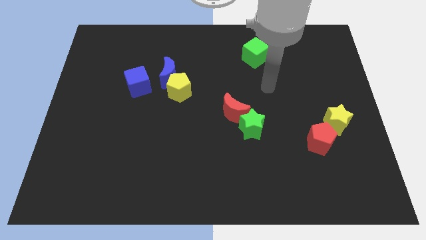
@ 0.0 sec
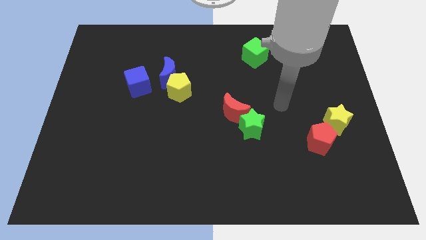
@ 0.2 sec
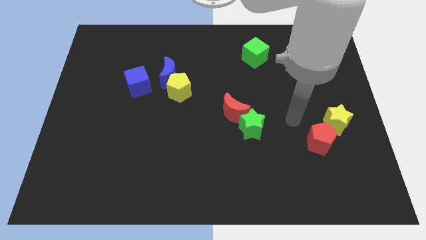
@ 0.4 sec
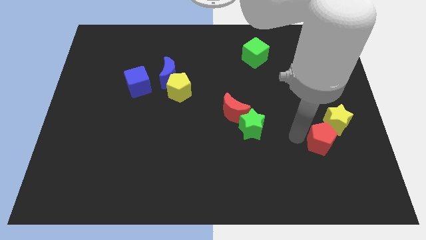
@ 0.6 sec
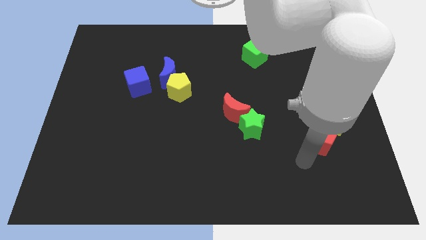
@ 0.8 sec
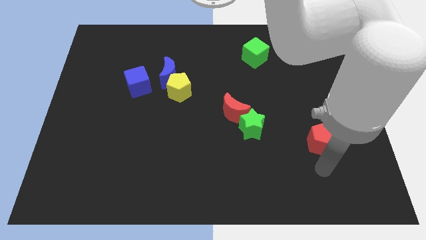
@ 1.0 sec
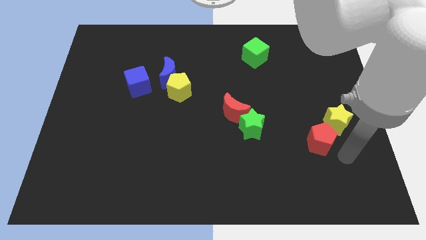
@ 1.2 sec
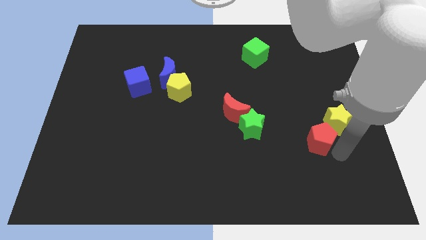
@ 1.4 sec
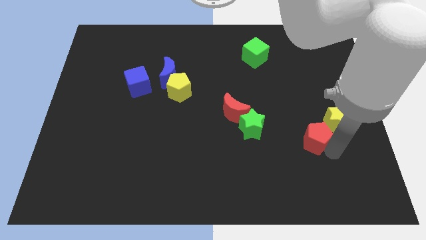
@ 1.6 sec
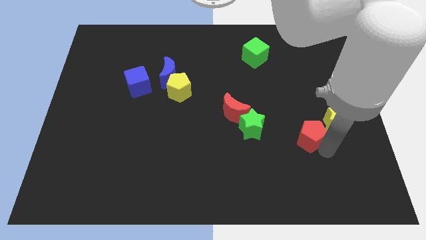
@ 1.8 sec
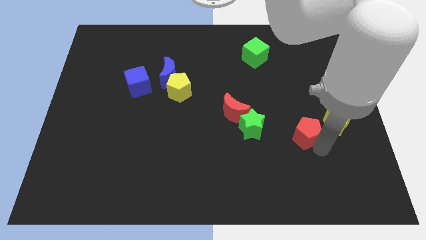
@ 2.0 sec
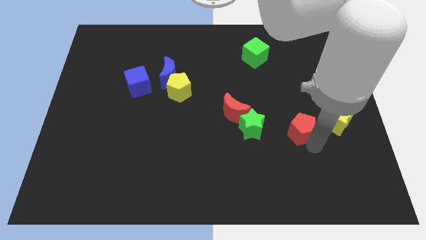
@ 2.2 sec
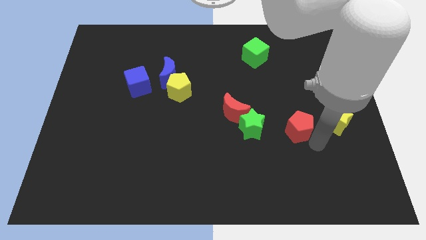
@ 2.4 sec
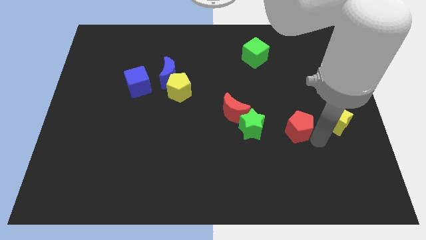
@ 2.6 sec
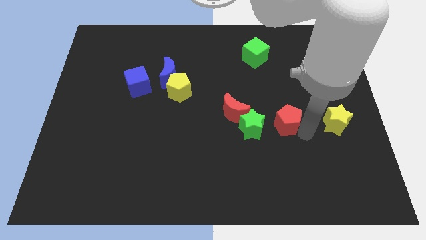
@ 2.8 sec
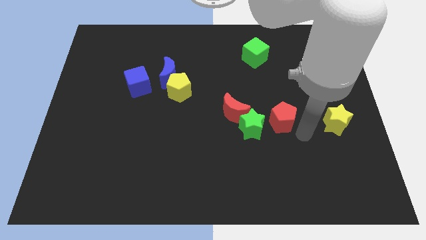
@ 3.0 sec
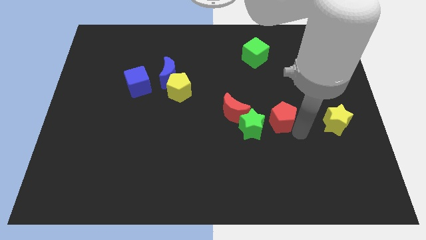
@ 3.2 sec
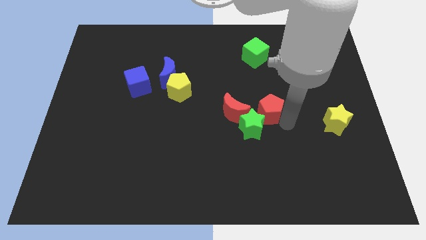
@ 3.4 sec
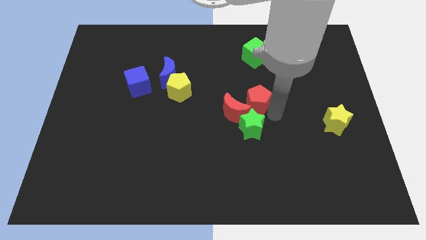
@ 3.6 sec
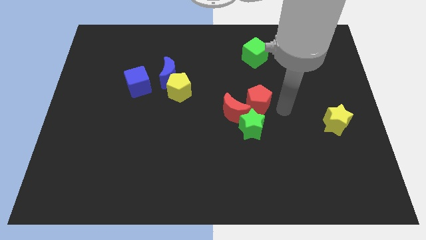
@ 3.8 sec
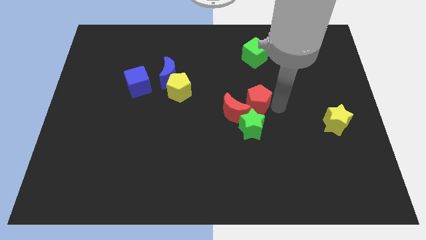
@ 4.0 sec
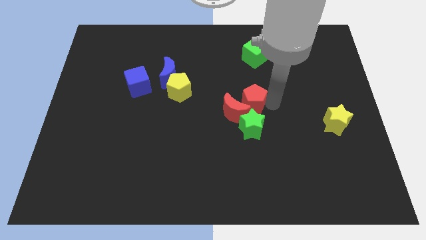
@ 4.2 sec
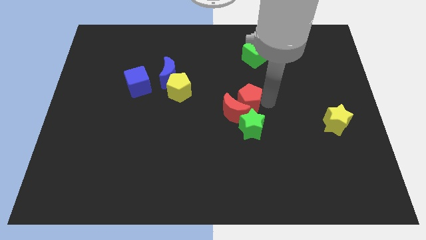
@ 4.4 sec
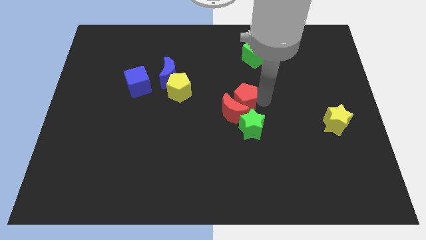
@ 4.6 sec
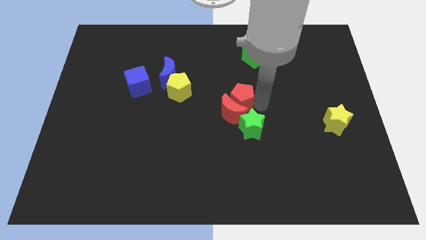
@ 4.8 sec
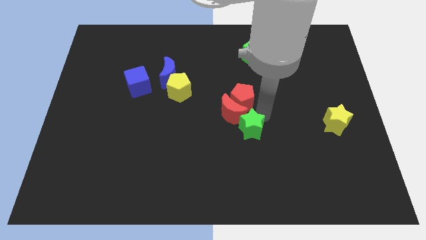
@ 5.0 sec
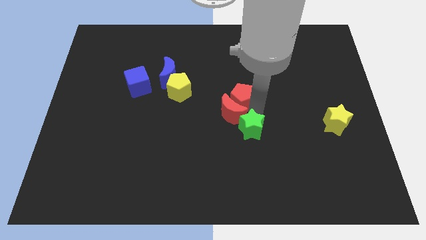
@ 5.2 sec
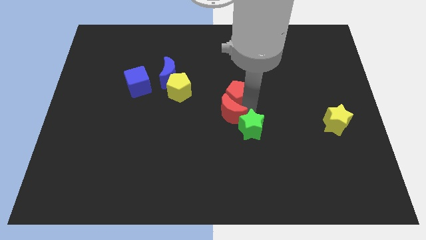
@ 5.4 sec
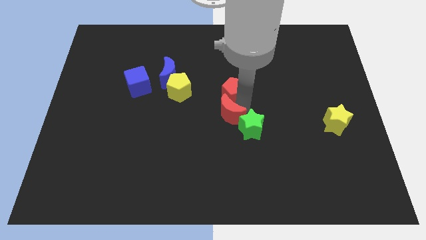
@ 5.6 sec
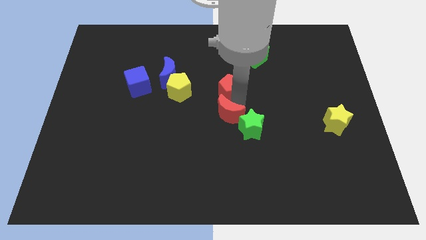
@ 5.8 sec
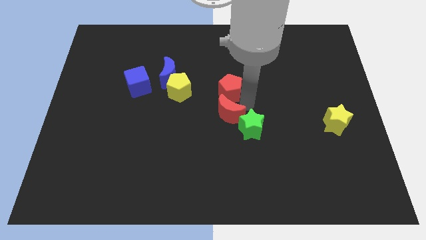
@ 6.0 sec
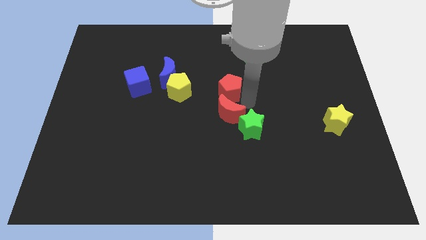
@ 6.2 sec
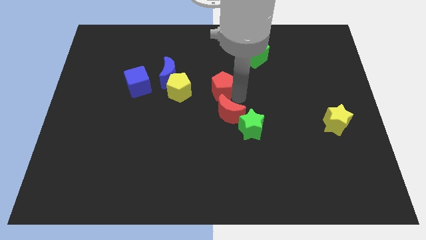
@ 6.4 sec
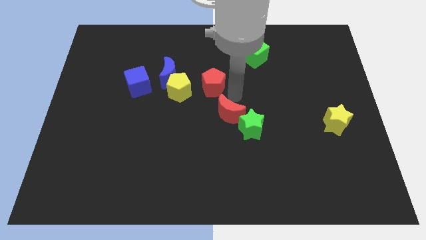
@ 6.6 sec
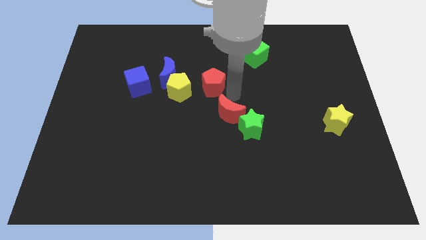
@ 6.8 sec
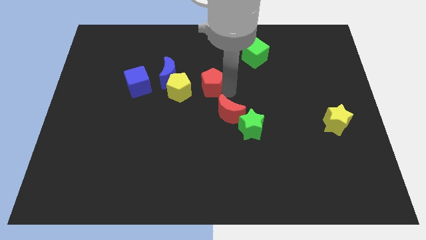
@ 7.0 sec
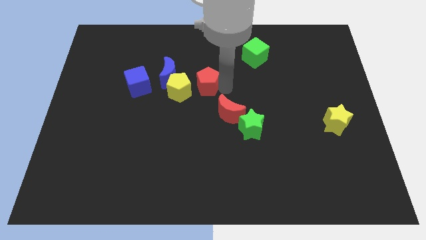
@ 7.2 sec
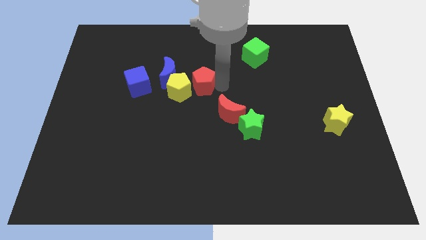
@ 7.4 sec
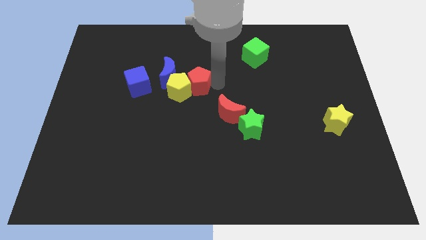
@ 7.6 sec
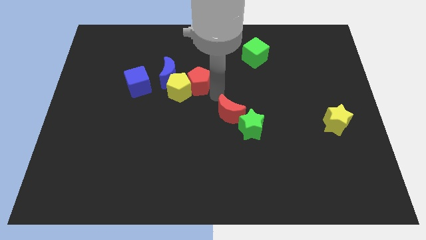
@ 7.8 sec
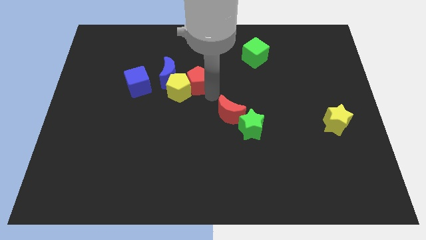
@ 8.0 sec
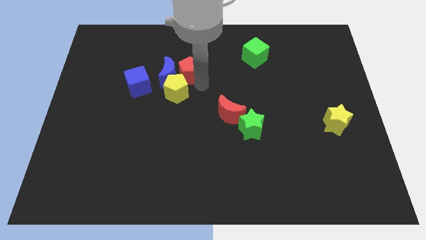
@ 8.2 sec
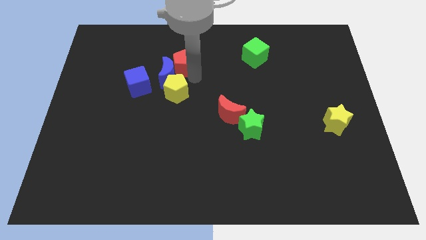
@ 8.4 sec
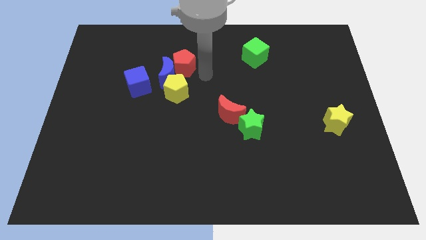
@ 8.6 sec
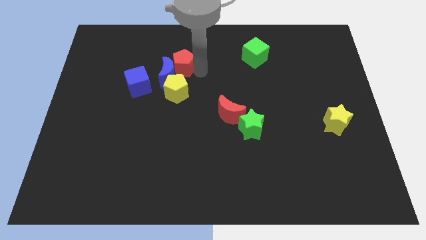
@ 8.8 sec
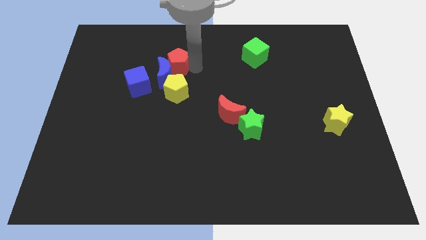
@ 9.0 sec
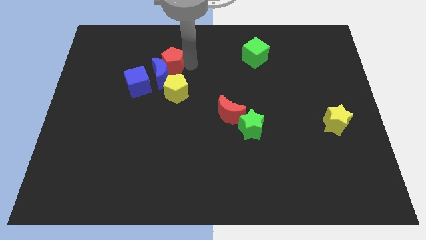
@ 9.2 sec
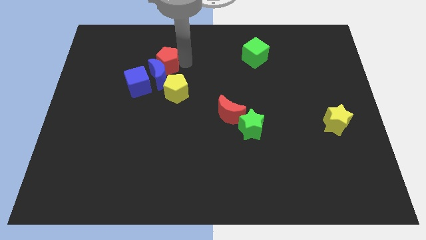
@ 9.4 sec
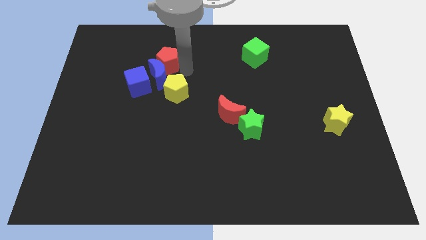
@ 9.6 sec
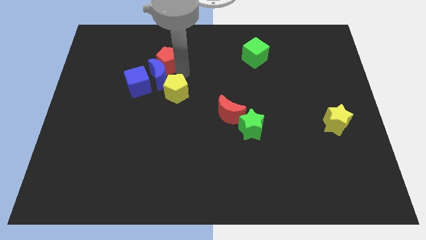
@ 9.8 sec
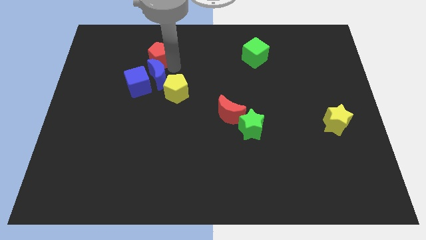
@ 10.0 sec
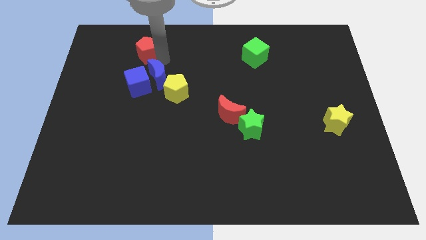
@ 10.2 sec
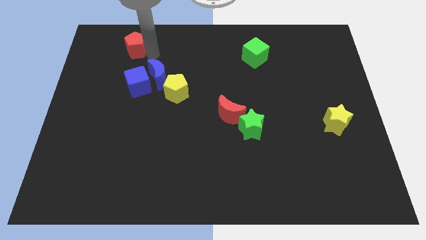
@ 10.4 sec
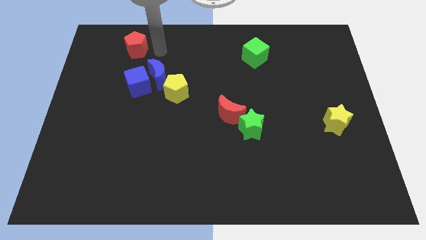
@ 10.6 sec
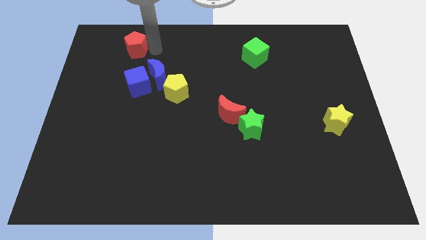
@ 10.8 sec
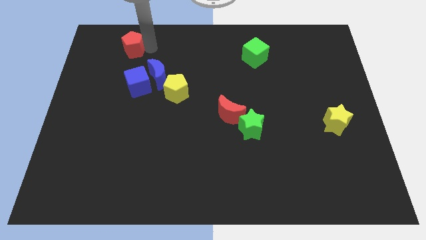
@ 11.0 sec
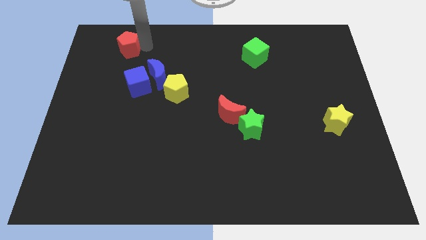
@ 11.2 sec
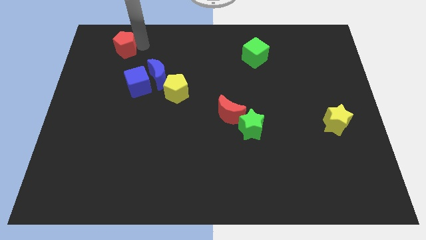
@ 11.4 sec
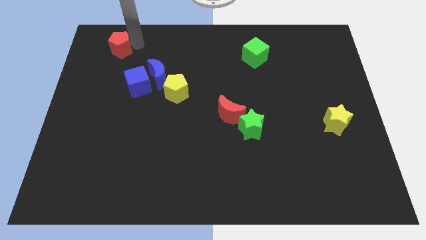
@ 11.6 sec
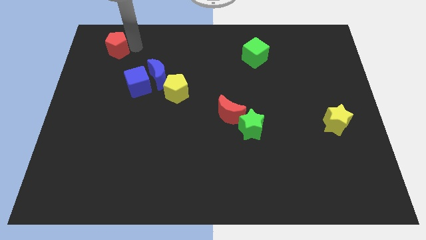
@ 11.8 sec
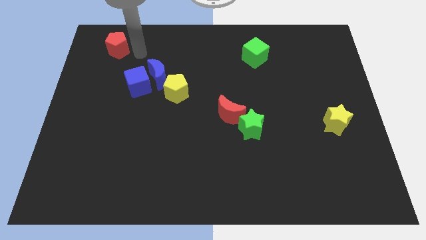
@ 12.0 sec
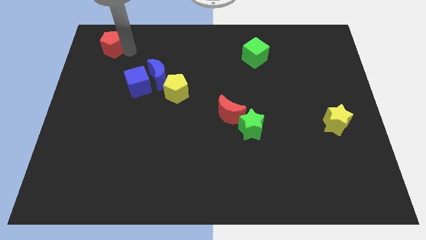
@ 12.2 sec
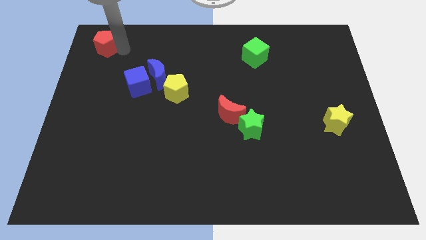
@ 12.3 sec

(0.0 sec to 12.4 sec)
slide the red pentagon to the top left of the board

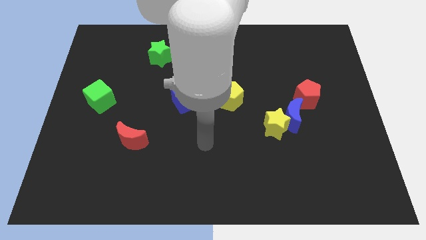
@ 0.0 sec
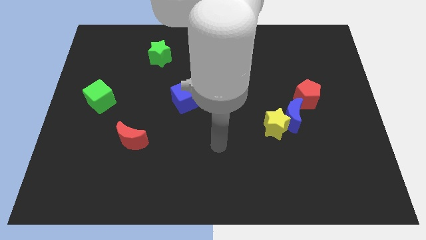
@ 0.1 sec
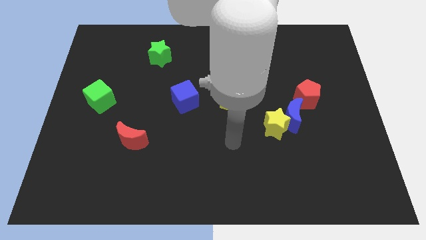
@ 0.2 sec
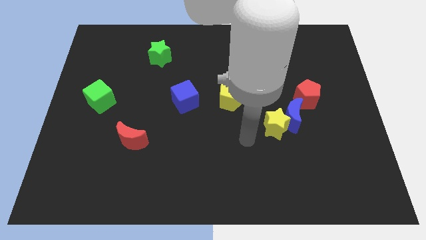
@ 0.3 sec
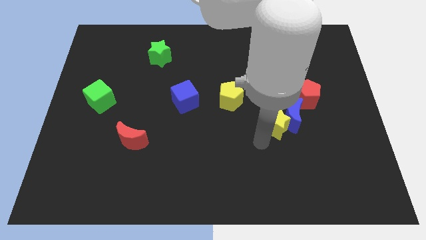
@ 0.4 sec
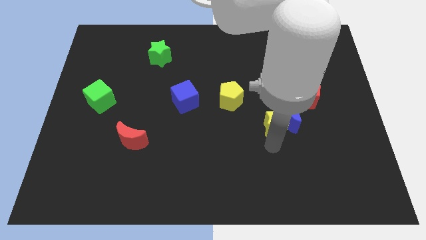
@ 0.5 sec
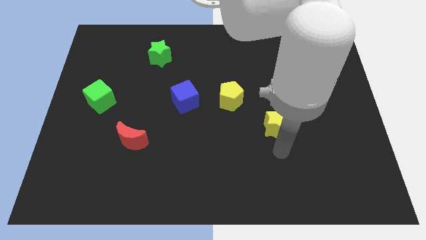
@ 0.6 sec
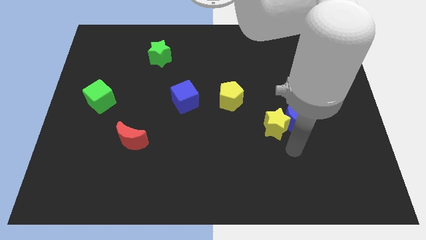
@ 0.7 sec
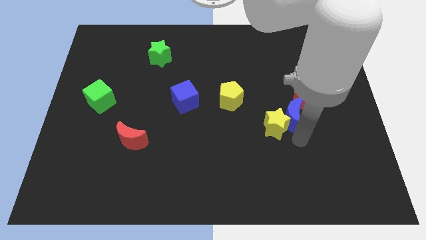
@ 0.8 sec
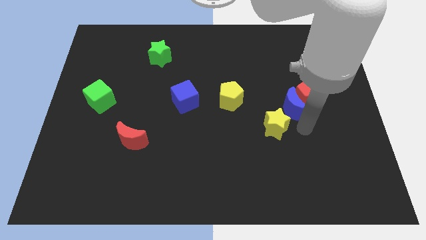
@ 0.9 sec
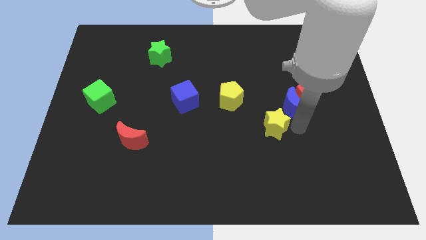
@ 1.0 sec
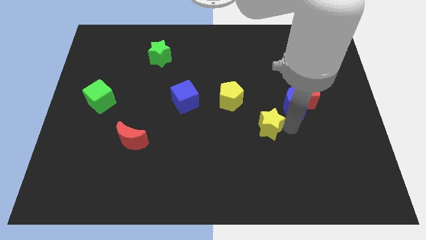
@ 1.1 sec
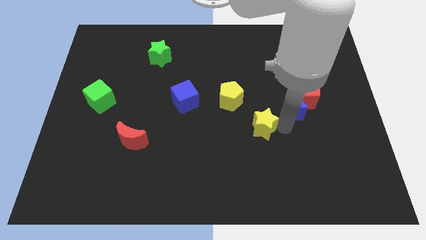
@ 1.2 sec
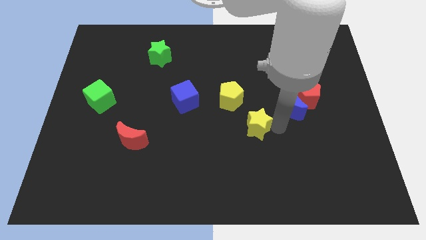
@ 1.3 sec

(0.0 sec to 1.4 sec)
slide the yellow star to the center of the board
